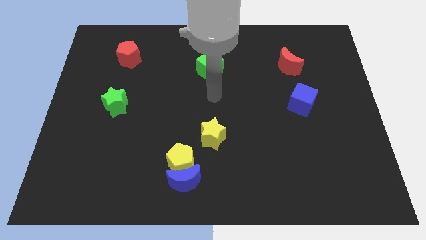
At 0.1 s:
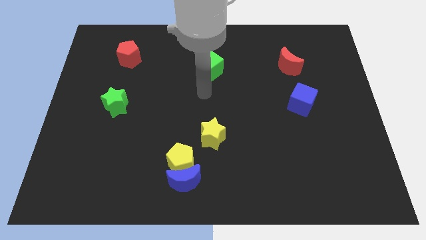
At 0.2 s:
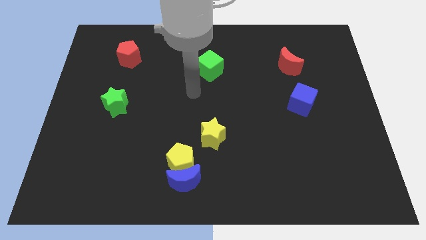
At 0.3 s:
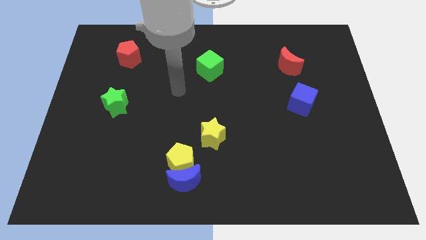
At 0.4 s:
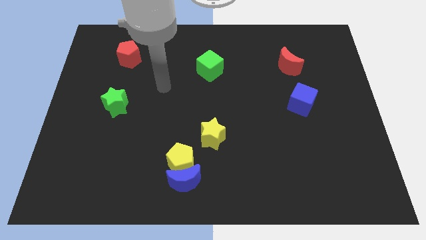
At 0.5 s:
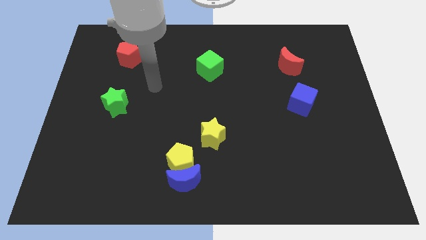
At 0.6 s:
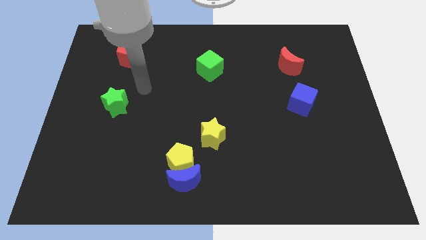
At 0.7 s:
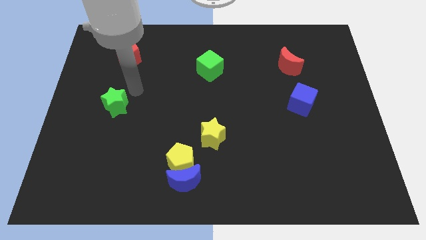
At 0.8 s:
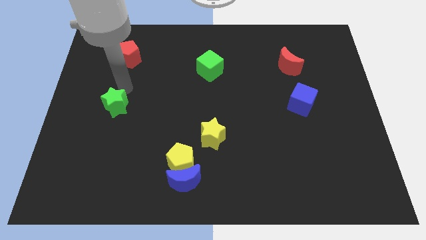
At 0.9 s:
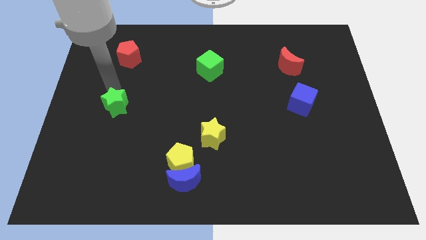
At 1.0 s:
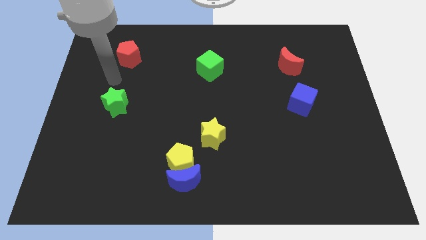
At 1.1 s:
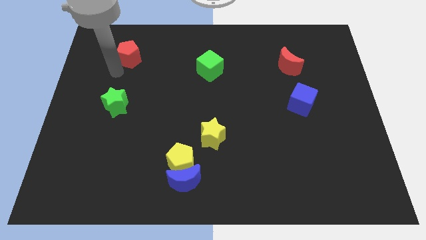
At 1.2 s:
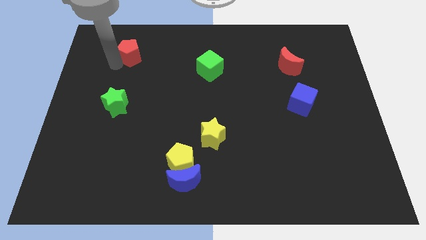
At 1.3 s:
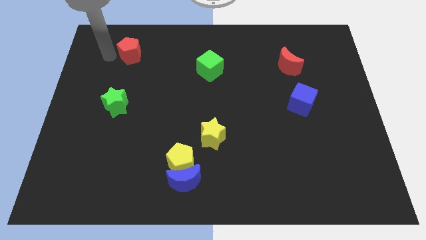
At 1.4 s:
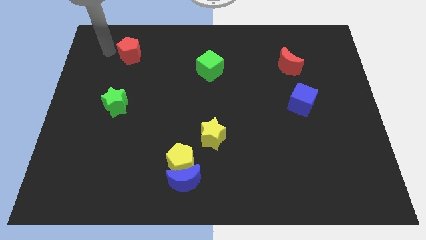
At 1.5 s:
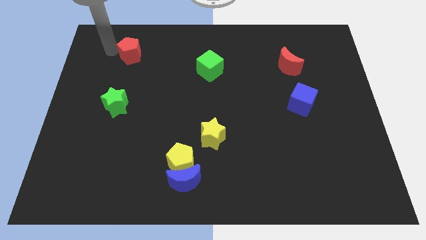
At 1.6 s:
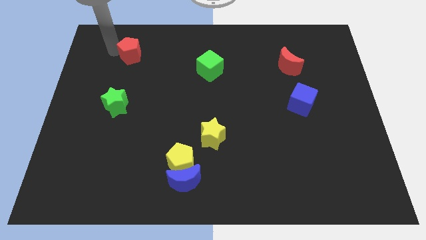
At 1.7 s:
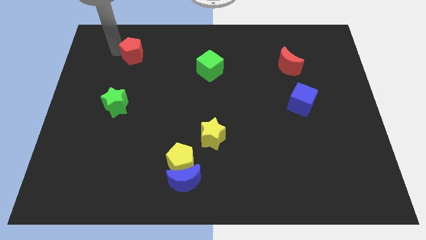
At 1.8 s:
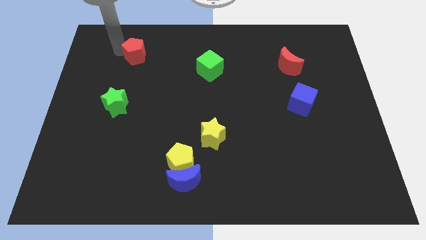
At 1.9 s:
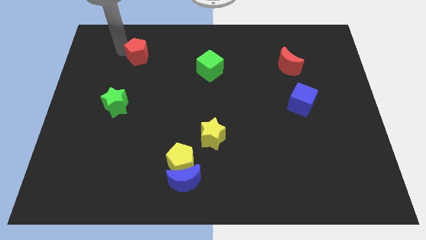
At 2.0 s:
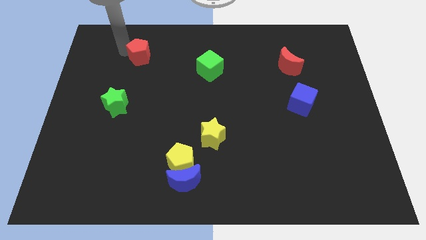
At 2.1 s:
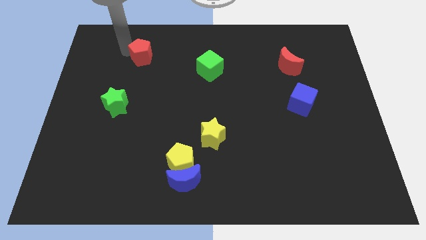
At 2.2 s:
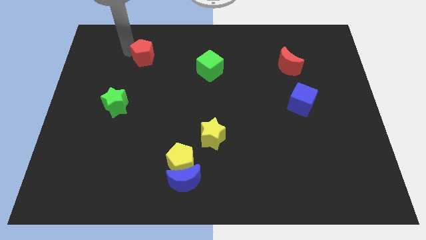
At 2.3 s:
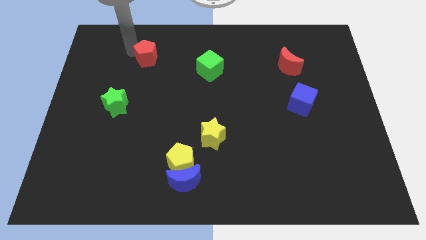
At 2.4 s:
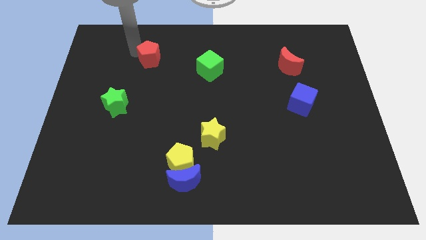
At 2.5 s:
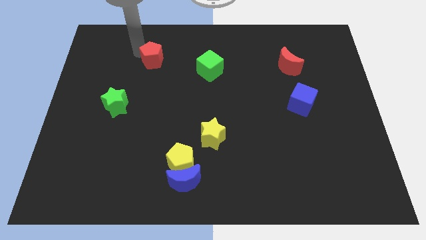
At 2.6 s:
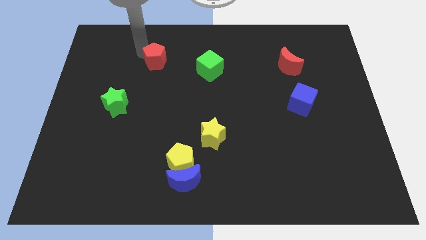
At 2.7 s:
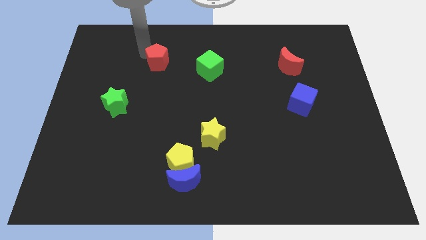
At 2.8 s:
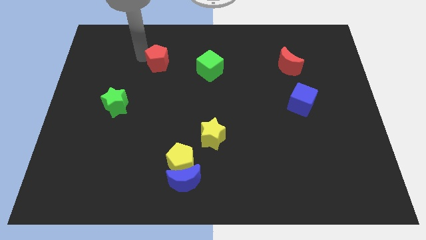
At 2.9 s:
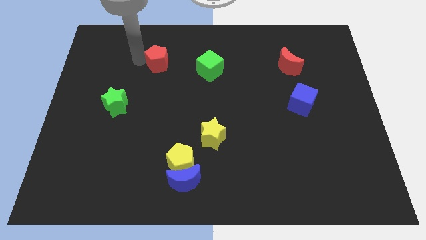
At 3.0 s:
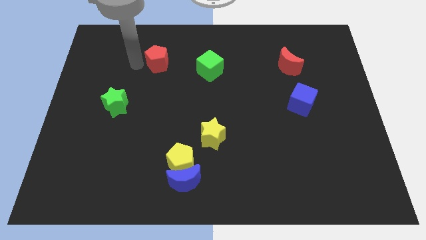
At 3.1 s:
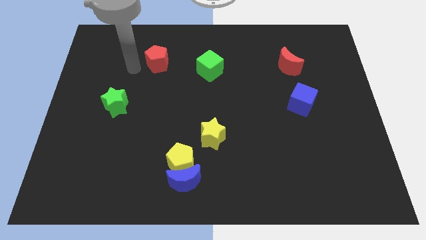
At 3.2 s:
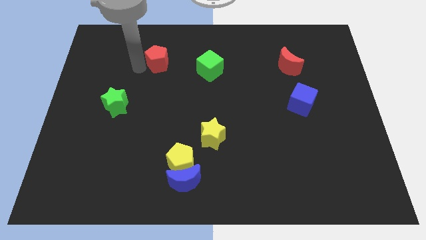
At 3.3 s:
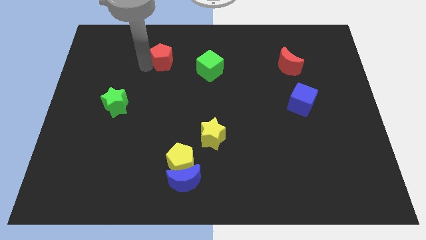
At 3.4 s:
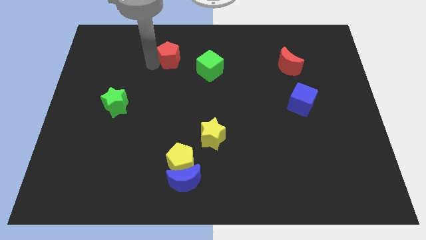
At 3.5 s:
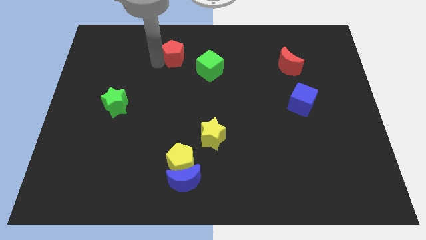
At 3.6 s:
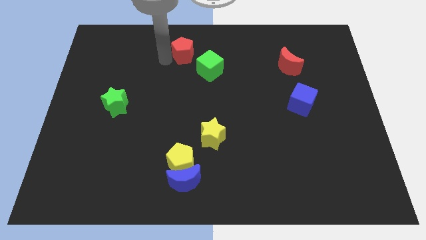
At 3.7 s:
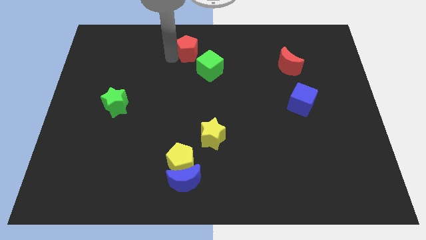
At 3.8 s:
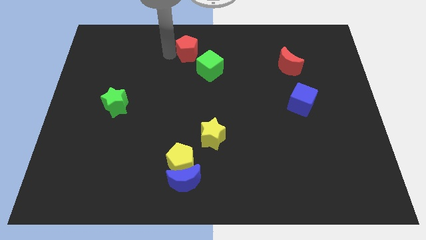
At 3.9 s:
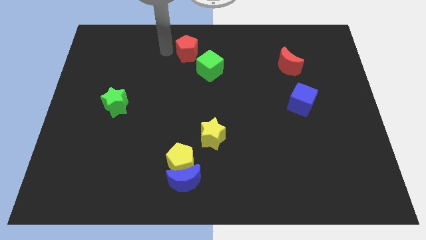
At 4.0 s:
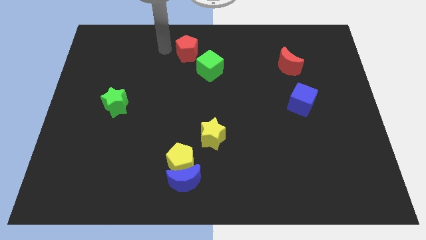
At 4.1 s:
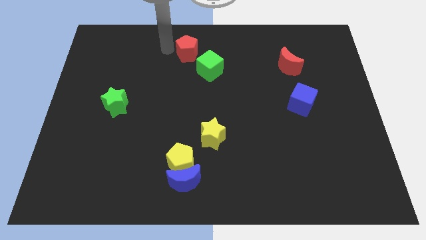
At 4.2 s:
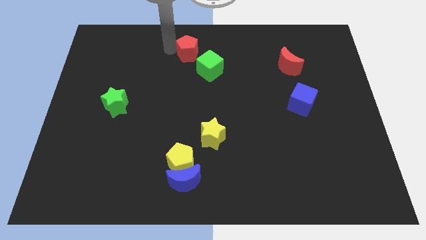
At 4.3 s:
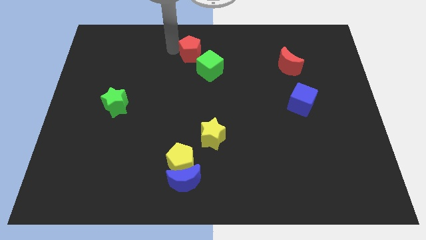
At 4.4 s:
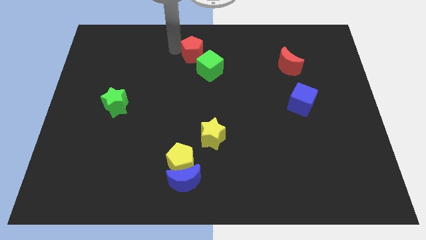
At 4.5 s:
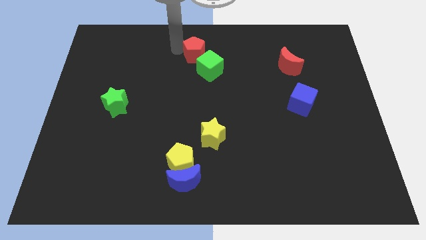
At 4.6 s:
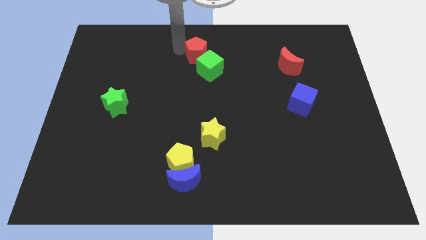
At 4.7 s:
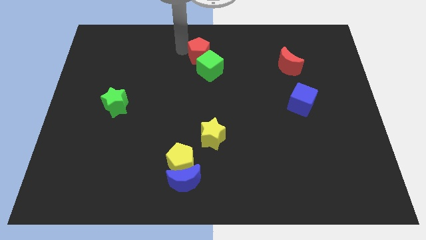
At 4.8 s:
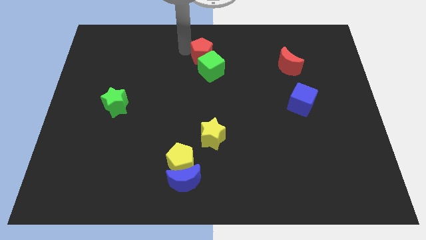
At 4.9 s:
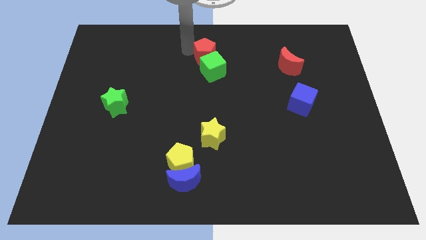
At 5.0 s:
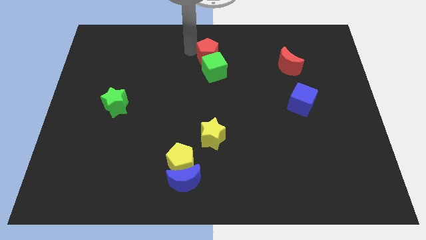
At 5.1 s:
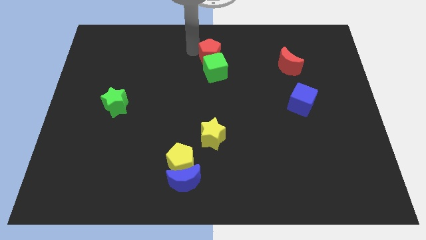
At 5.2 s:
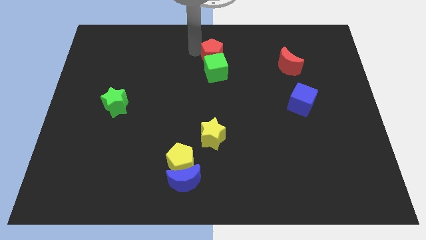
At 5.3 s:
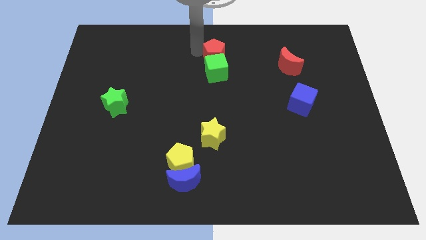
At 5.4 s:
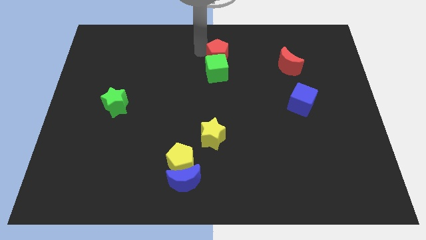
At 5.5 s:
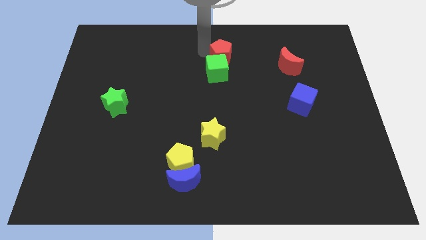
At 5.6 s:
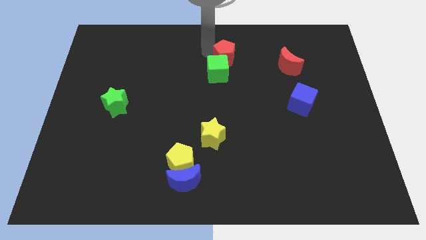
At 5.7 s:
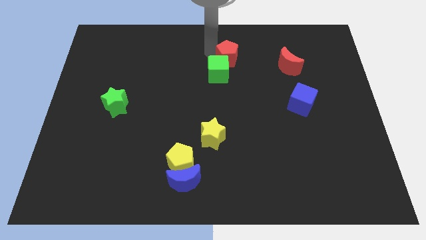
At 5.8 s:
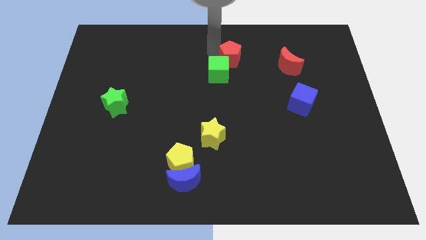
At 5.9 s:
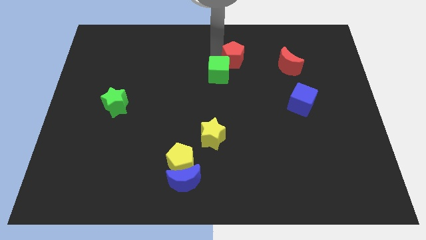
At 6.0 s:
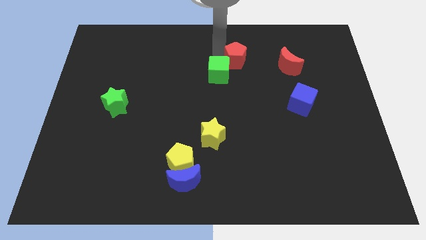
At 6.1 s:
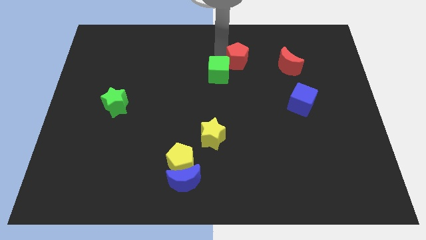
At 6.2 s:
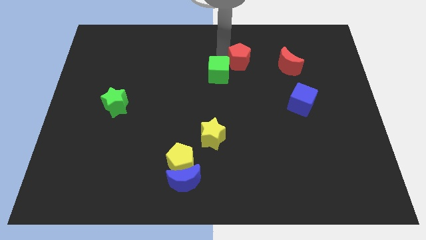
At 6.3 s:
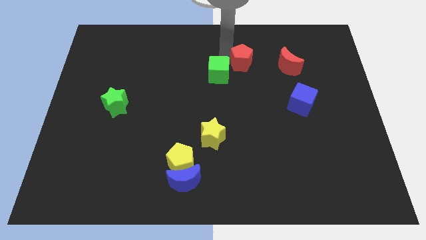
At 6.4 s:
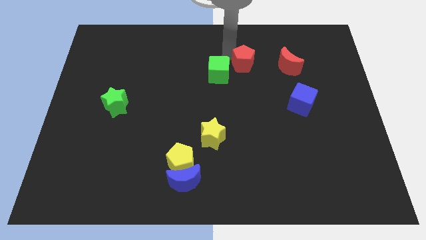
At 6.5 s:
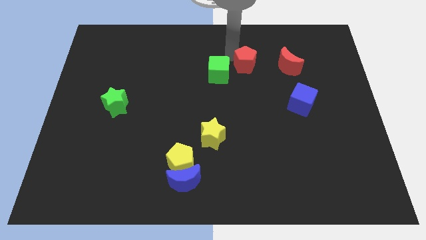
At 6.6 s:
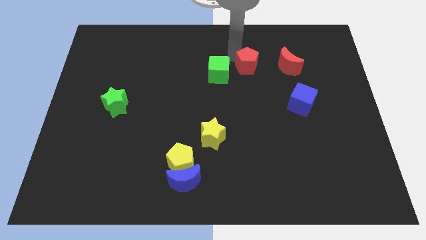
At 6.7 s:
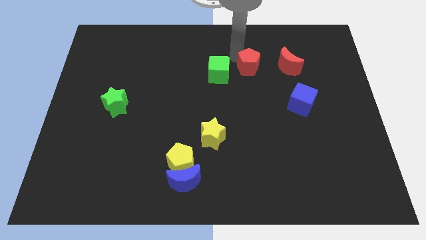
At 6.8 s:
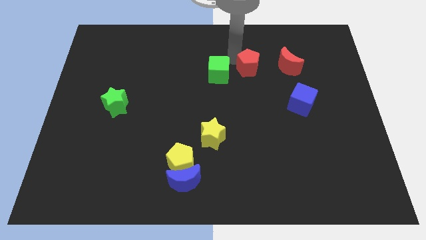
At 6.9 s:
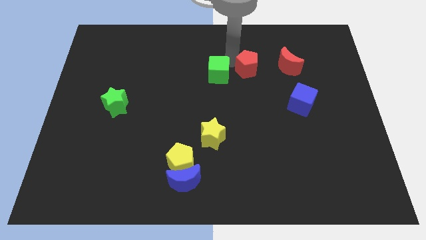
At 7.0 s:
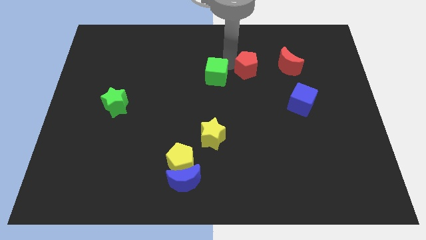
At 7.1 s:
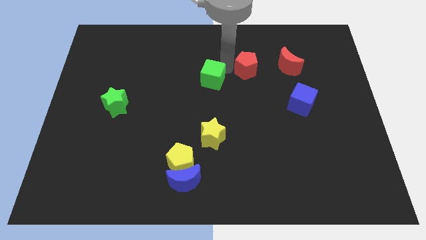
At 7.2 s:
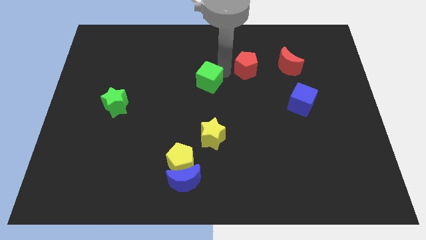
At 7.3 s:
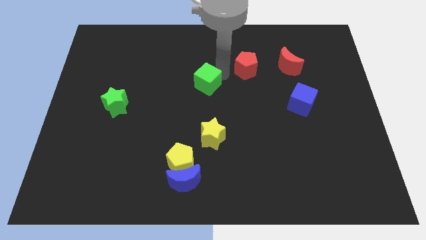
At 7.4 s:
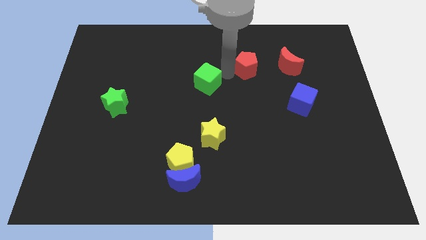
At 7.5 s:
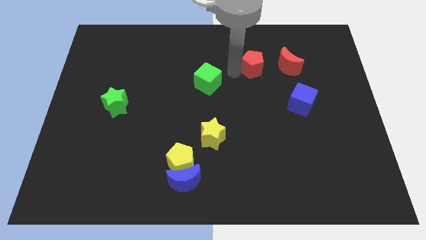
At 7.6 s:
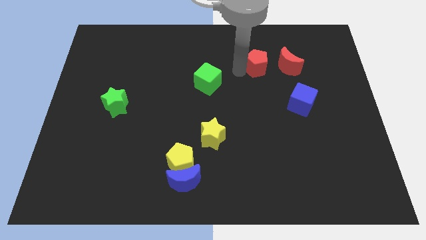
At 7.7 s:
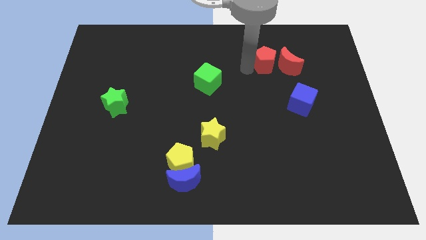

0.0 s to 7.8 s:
move the red pentagon to the red moon
